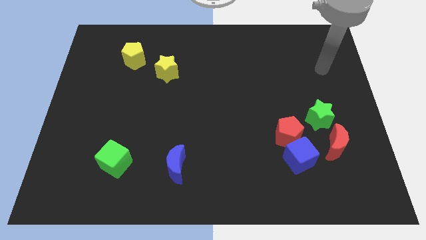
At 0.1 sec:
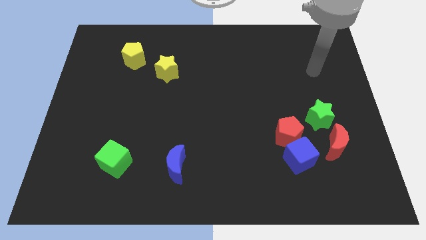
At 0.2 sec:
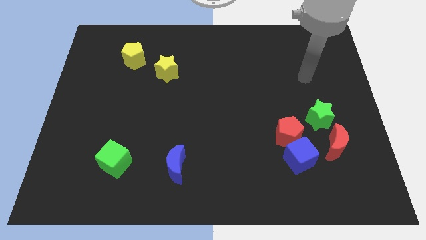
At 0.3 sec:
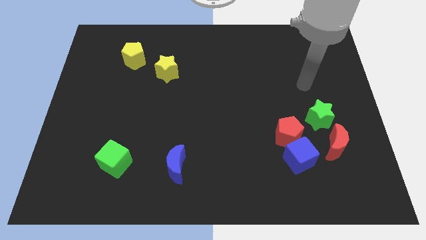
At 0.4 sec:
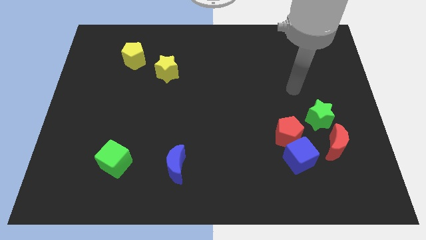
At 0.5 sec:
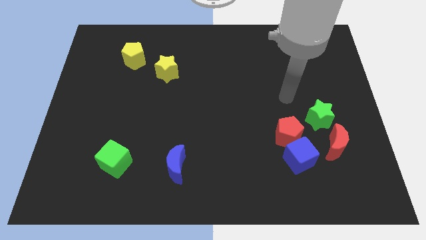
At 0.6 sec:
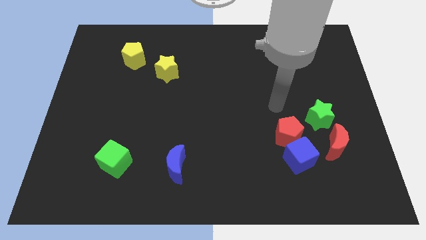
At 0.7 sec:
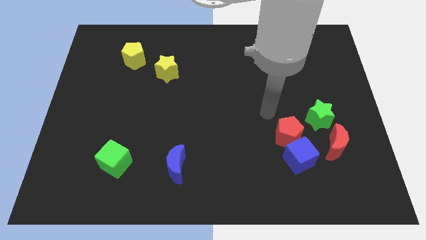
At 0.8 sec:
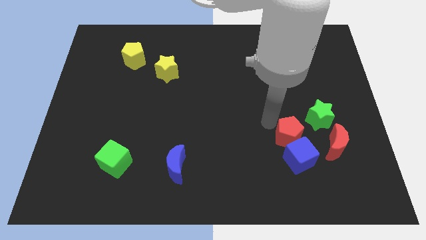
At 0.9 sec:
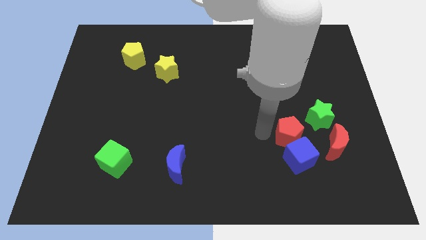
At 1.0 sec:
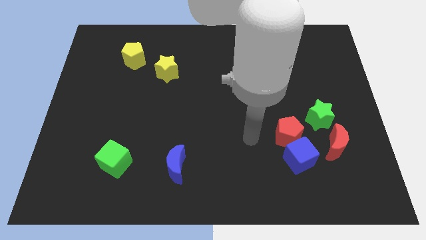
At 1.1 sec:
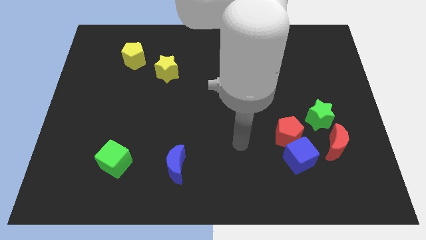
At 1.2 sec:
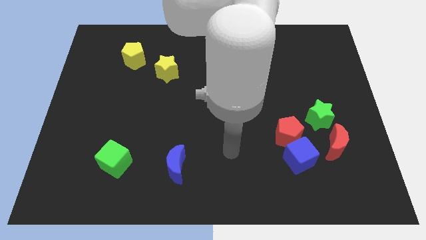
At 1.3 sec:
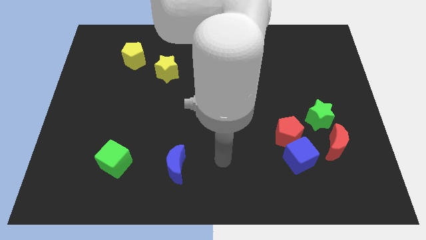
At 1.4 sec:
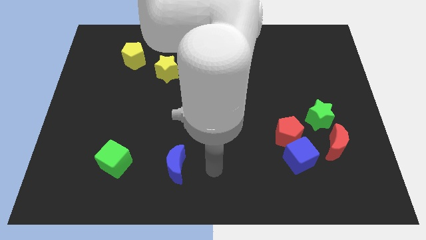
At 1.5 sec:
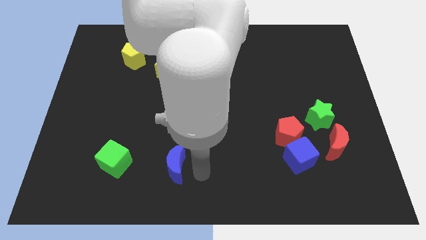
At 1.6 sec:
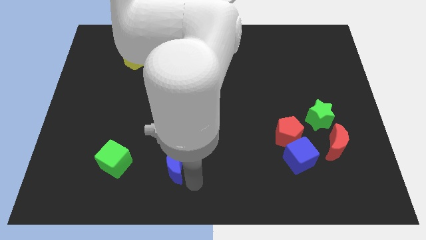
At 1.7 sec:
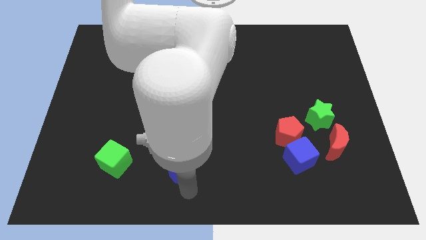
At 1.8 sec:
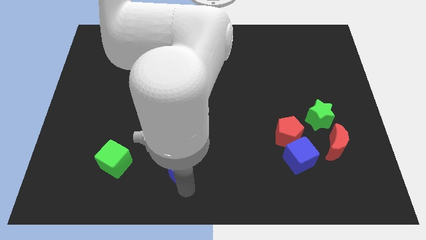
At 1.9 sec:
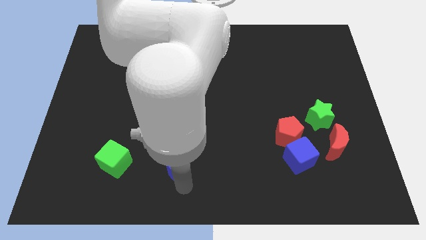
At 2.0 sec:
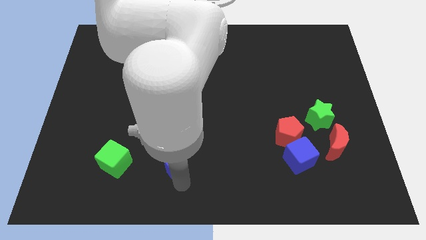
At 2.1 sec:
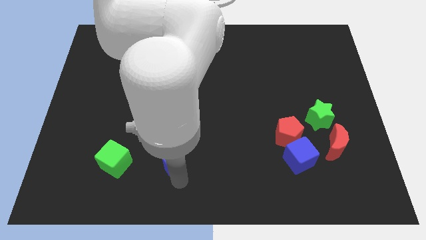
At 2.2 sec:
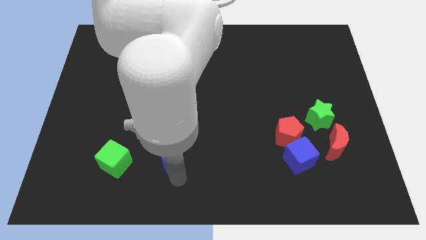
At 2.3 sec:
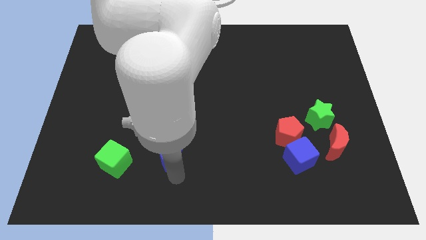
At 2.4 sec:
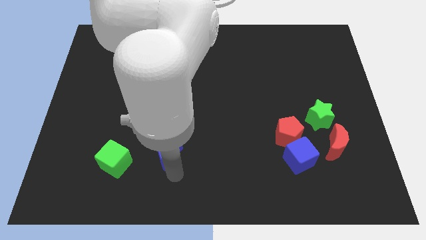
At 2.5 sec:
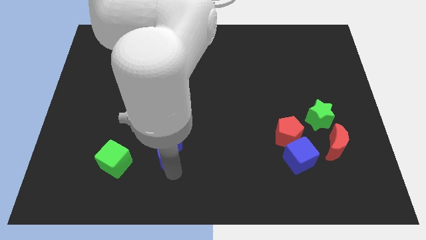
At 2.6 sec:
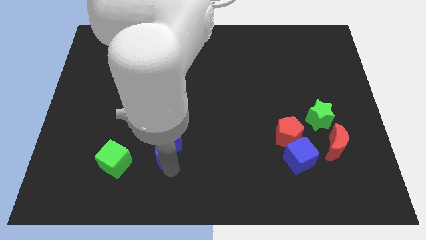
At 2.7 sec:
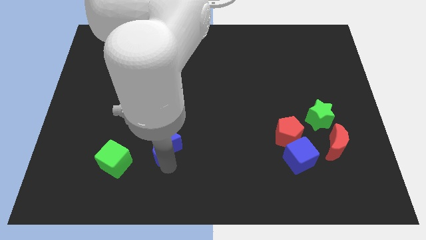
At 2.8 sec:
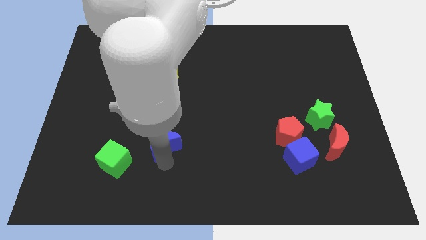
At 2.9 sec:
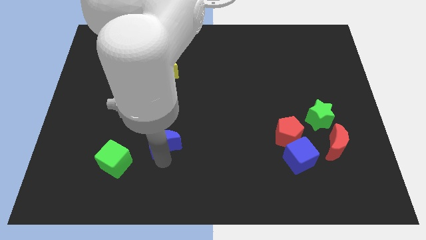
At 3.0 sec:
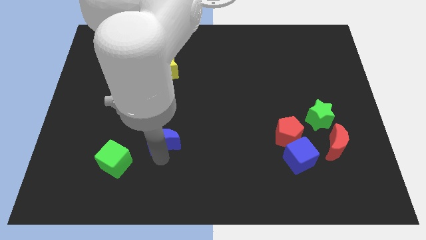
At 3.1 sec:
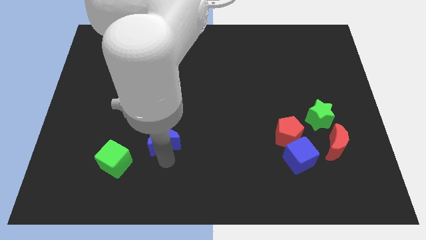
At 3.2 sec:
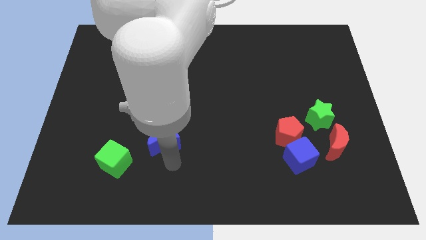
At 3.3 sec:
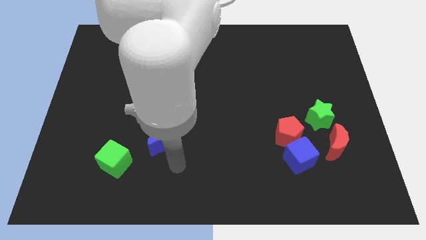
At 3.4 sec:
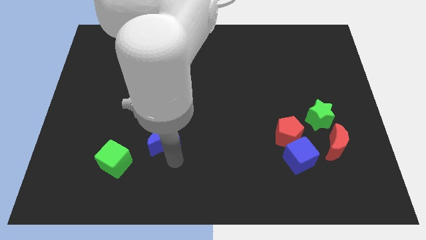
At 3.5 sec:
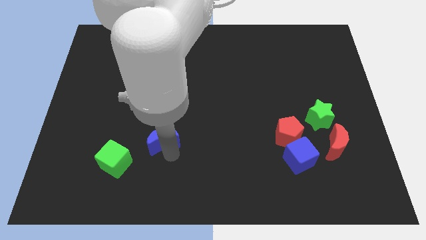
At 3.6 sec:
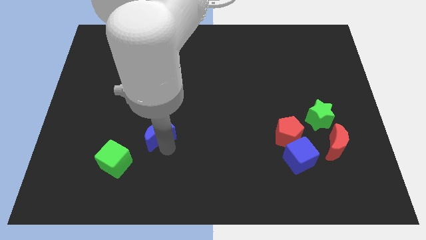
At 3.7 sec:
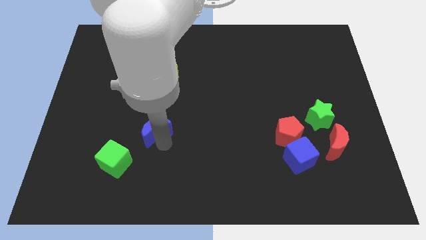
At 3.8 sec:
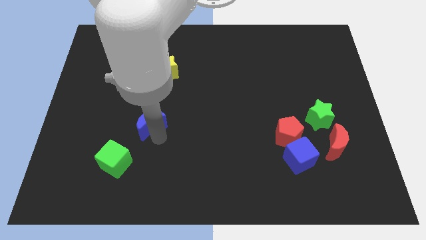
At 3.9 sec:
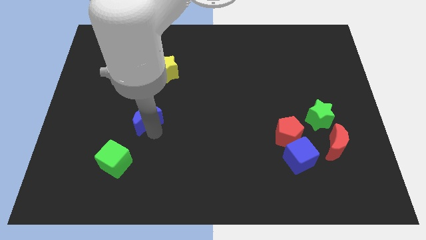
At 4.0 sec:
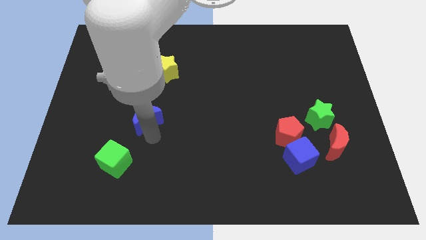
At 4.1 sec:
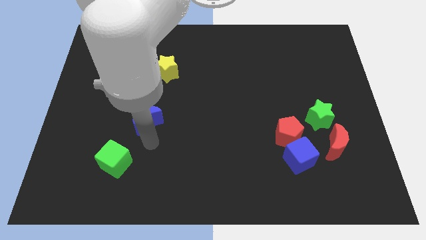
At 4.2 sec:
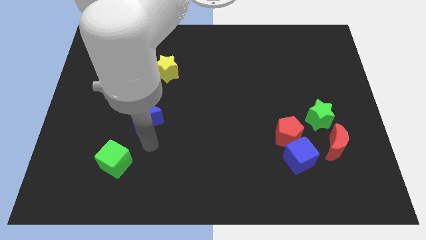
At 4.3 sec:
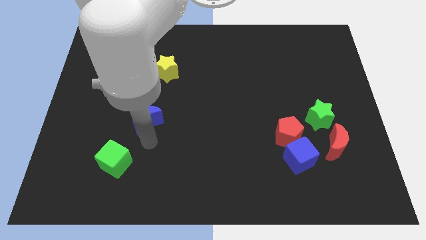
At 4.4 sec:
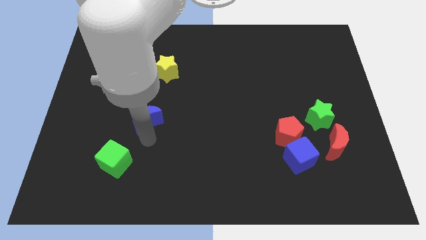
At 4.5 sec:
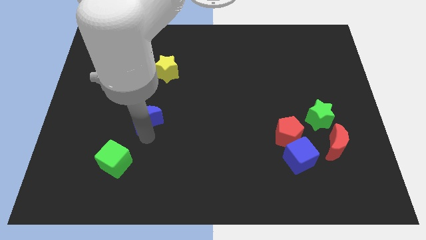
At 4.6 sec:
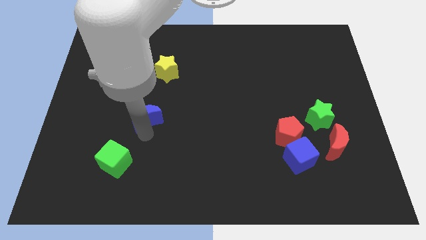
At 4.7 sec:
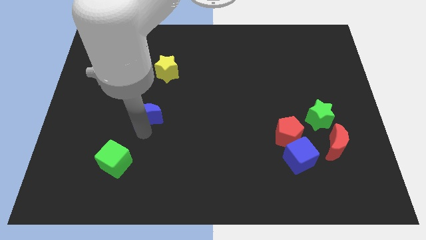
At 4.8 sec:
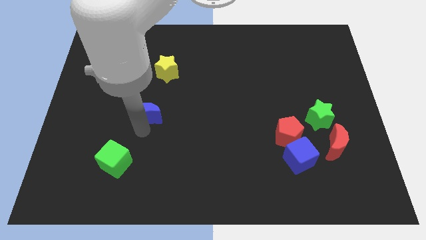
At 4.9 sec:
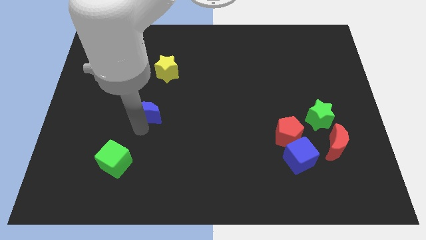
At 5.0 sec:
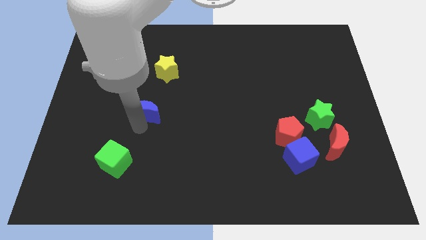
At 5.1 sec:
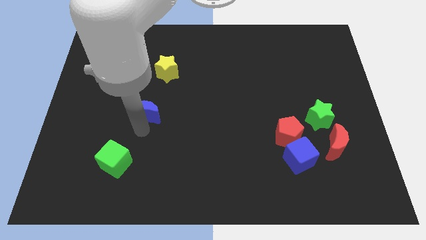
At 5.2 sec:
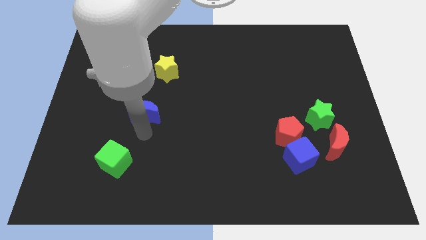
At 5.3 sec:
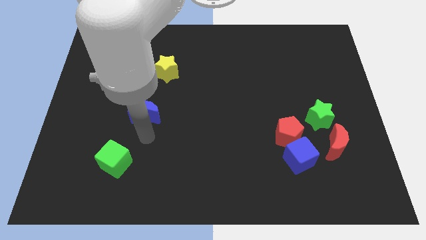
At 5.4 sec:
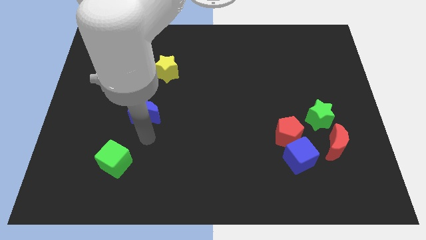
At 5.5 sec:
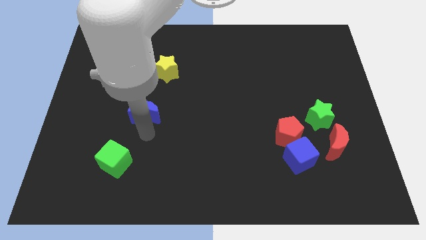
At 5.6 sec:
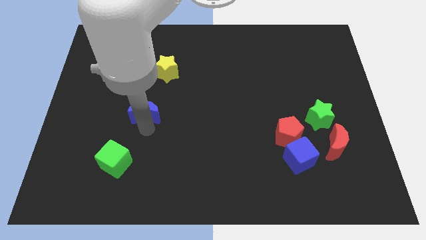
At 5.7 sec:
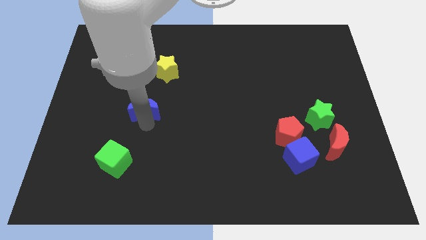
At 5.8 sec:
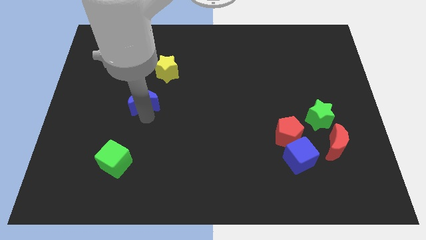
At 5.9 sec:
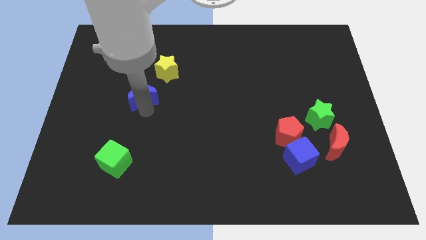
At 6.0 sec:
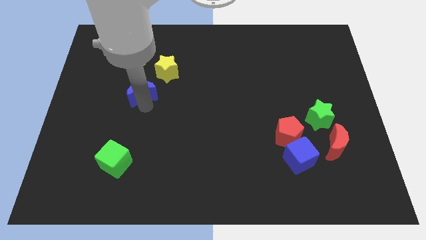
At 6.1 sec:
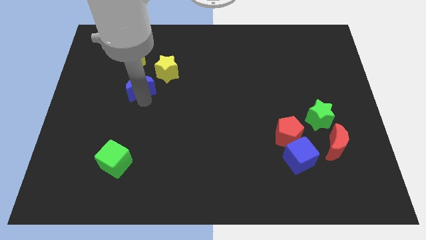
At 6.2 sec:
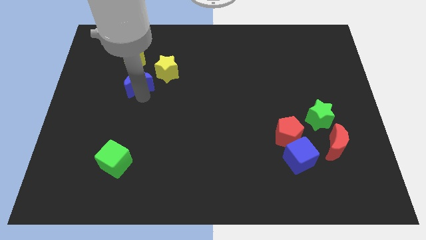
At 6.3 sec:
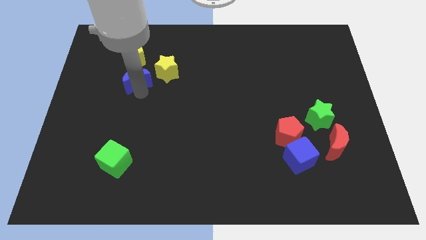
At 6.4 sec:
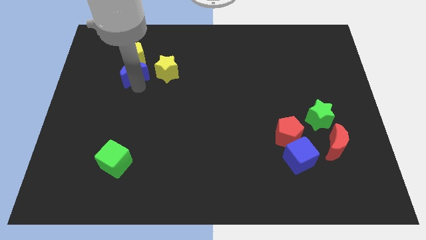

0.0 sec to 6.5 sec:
push the blue moon to the yellow pentagon
